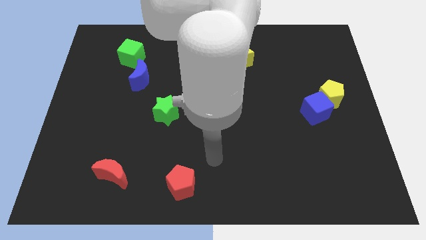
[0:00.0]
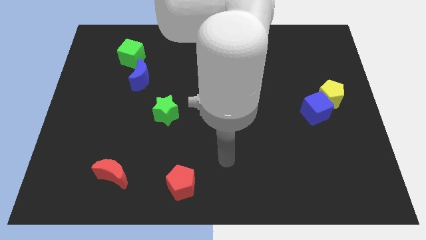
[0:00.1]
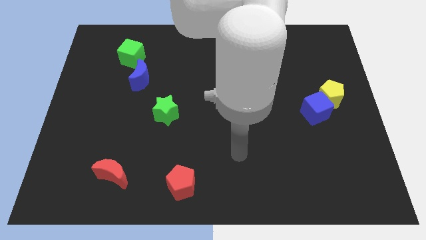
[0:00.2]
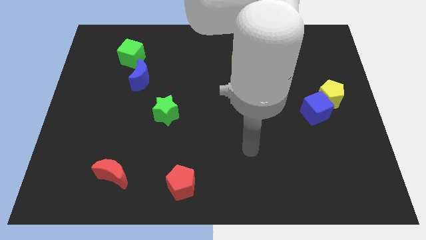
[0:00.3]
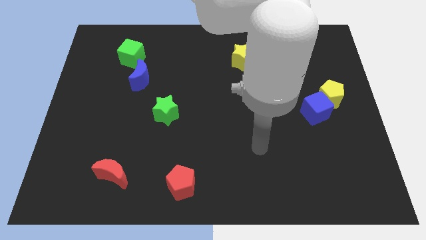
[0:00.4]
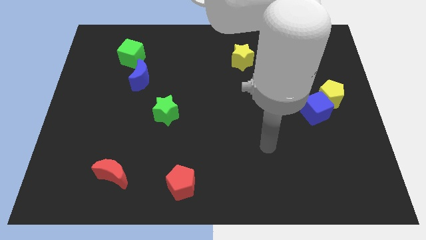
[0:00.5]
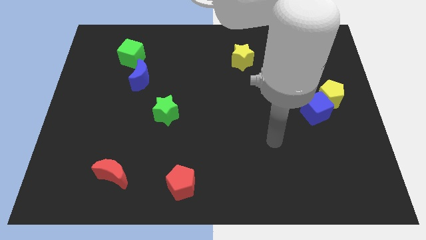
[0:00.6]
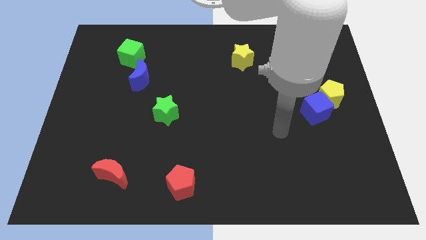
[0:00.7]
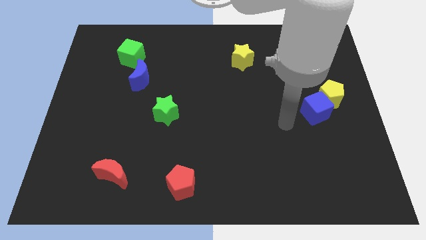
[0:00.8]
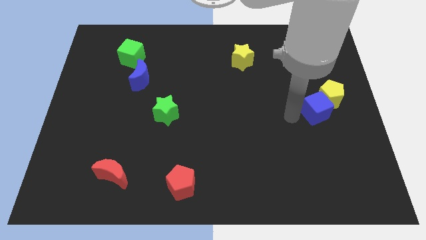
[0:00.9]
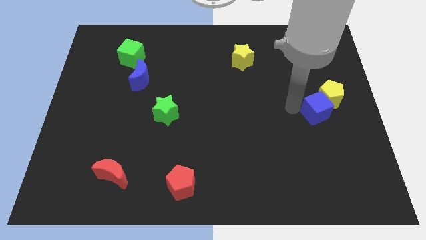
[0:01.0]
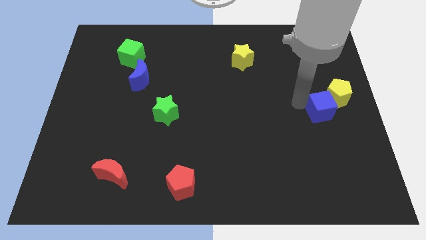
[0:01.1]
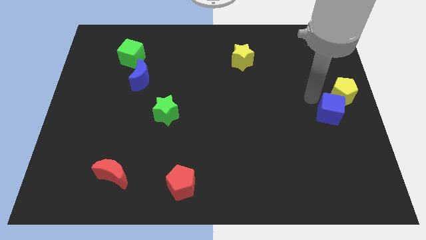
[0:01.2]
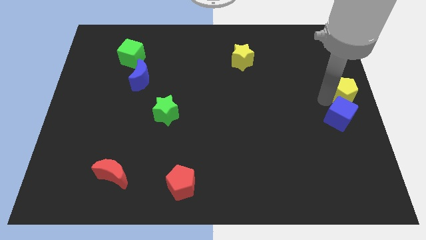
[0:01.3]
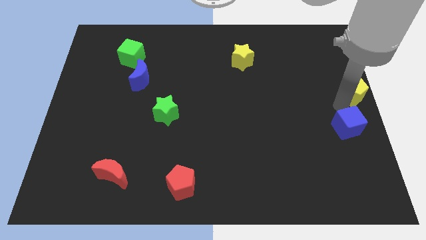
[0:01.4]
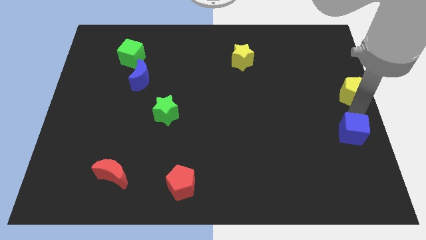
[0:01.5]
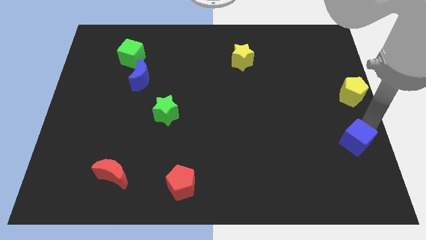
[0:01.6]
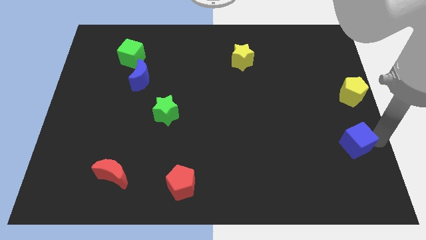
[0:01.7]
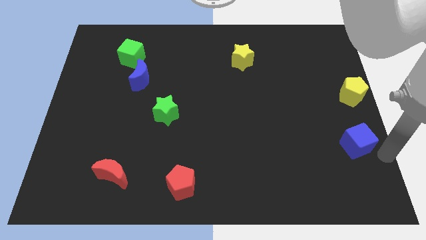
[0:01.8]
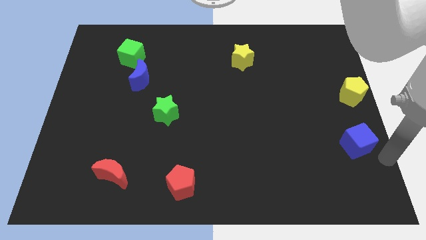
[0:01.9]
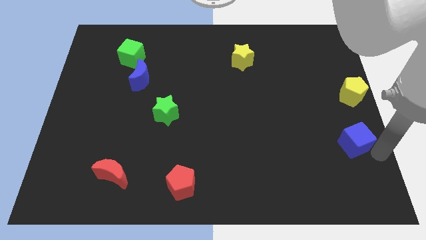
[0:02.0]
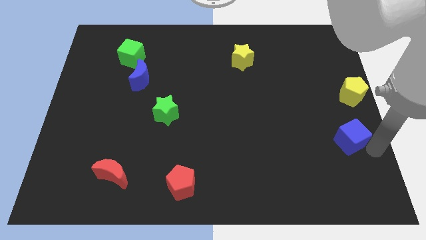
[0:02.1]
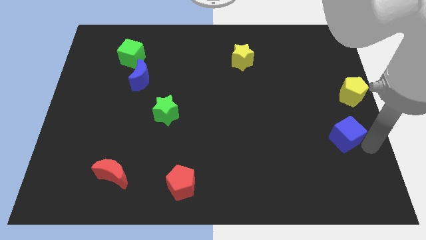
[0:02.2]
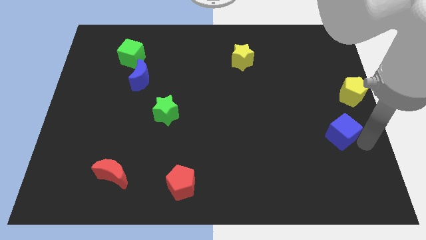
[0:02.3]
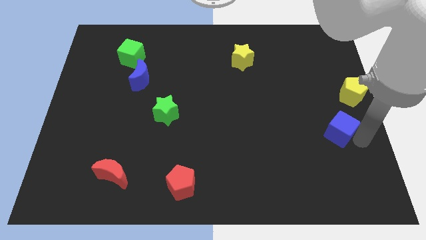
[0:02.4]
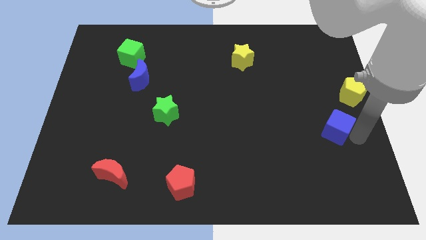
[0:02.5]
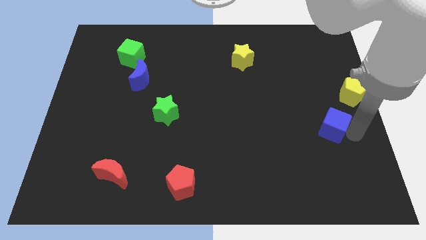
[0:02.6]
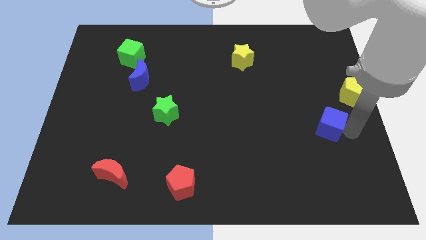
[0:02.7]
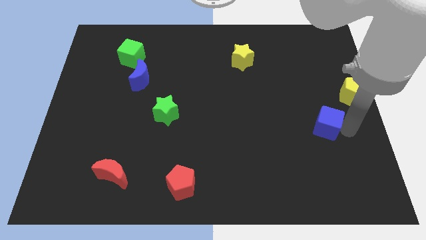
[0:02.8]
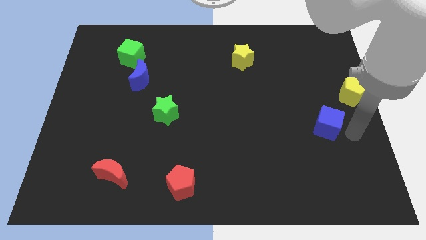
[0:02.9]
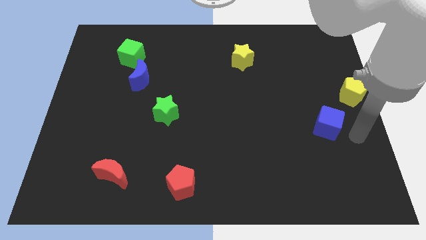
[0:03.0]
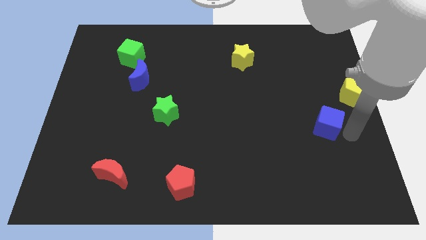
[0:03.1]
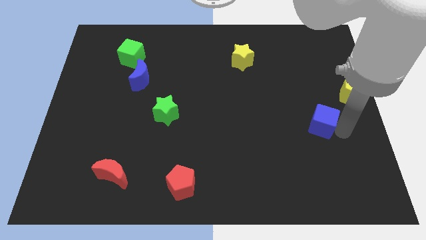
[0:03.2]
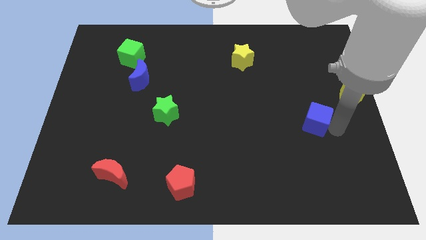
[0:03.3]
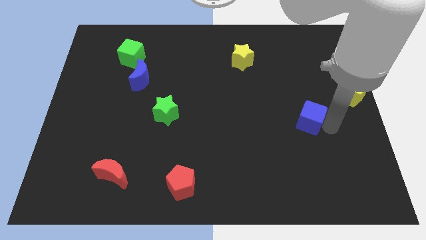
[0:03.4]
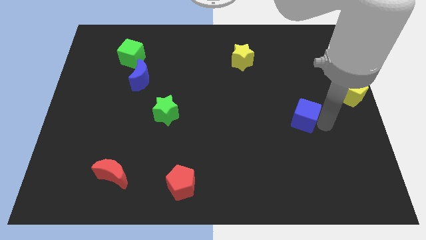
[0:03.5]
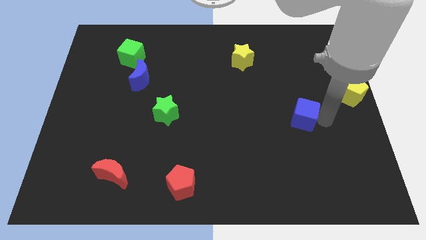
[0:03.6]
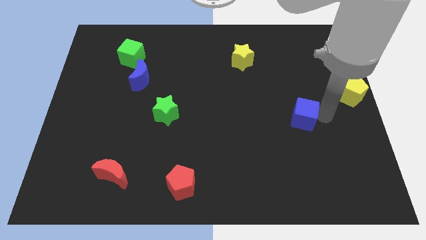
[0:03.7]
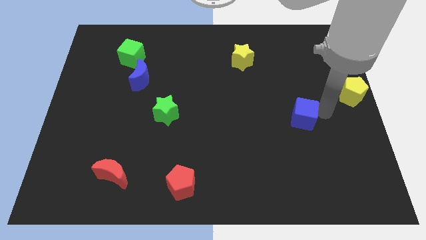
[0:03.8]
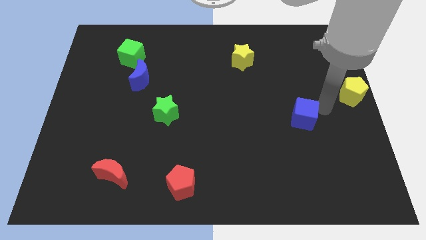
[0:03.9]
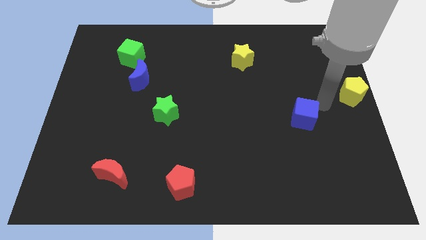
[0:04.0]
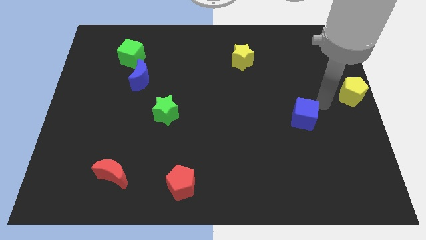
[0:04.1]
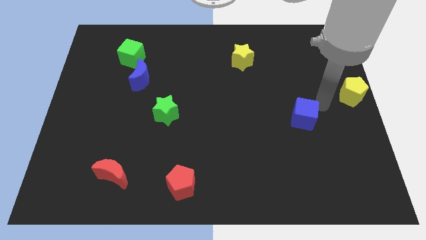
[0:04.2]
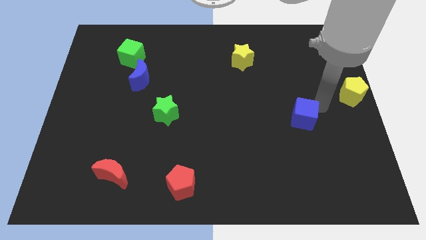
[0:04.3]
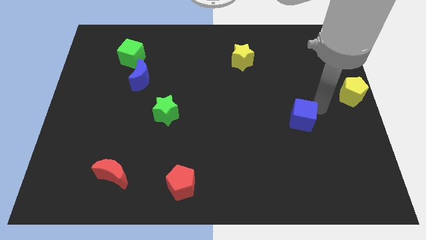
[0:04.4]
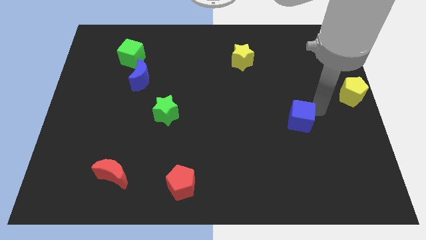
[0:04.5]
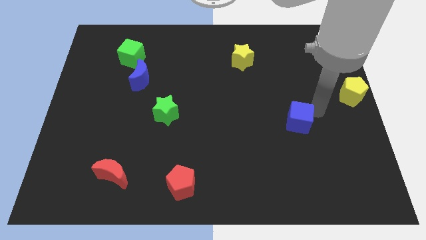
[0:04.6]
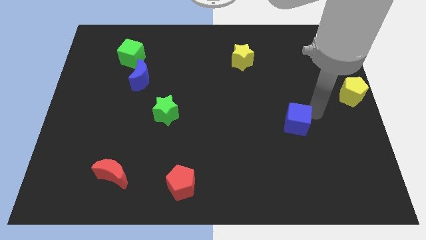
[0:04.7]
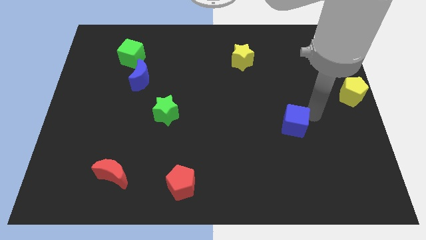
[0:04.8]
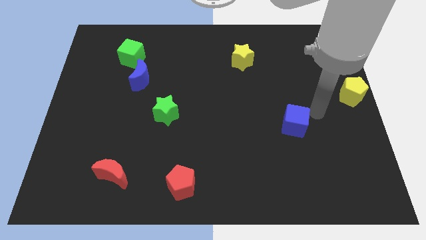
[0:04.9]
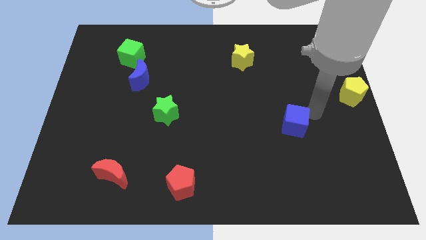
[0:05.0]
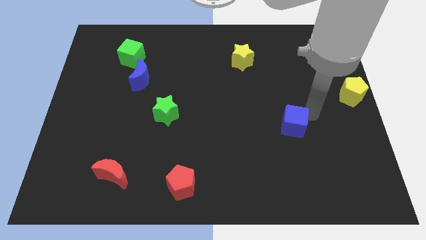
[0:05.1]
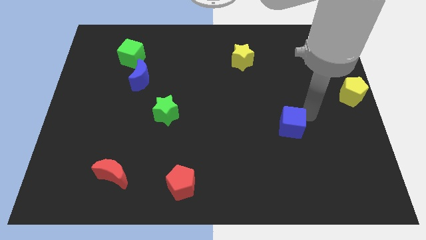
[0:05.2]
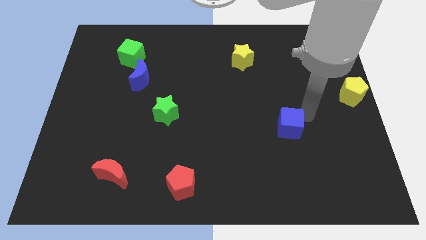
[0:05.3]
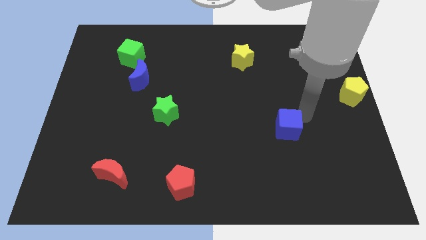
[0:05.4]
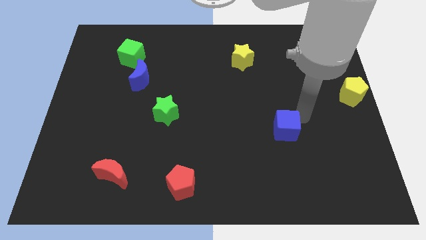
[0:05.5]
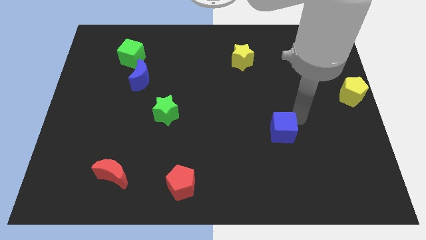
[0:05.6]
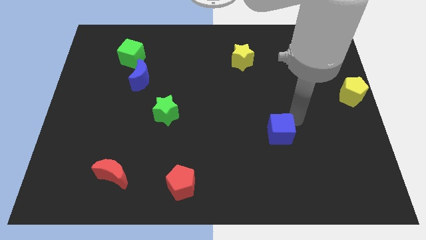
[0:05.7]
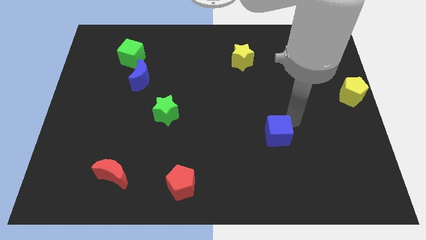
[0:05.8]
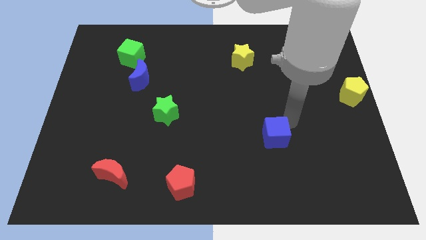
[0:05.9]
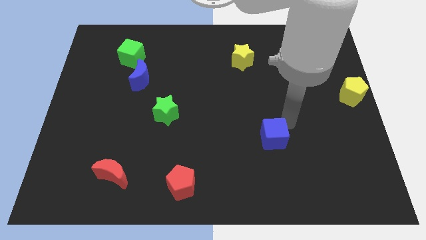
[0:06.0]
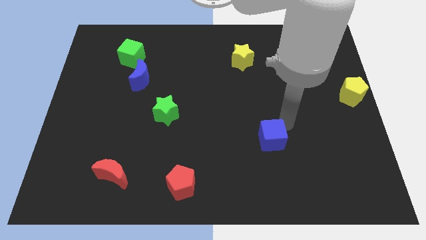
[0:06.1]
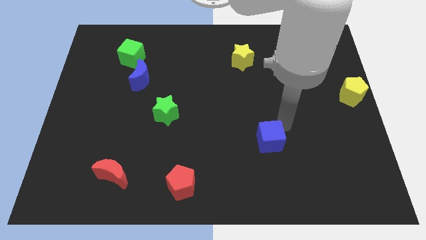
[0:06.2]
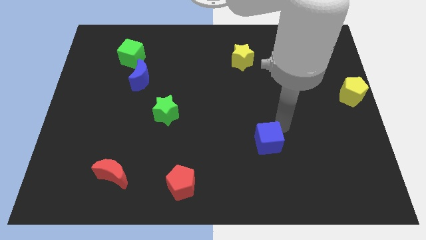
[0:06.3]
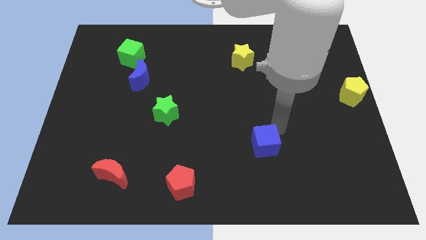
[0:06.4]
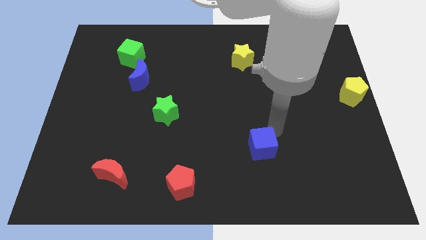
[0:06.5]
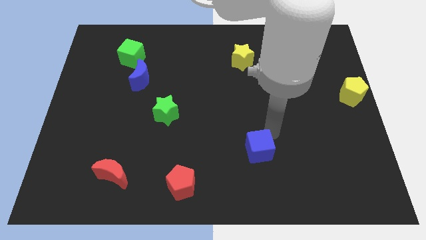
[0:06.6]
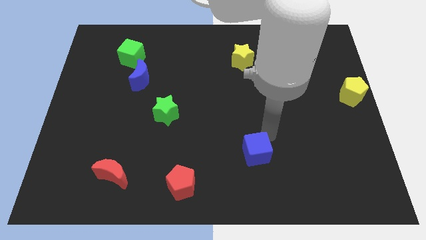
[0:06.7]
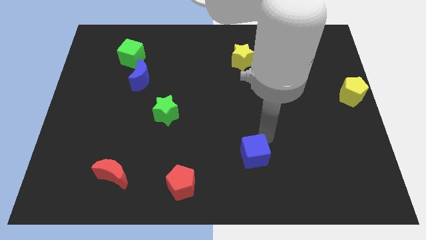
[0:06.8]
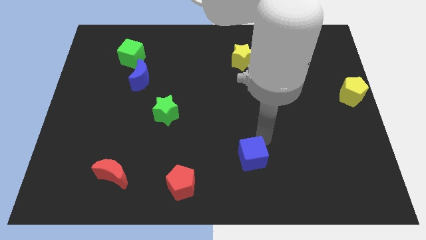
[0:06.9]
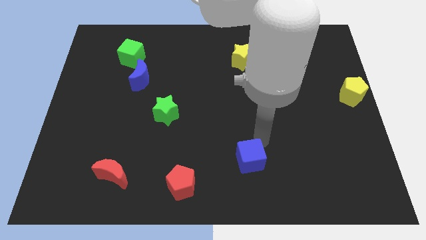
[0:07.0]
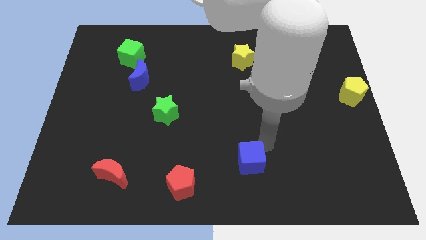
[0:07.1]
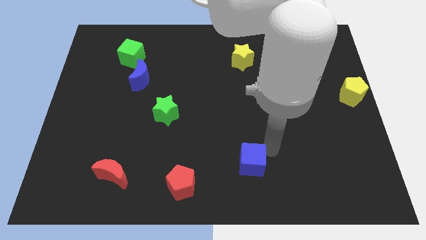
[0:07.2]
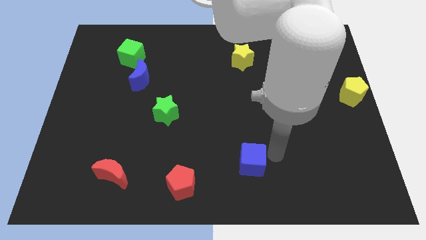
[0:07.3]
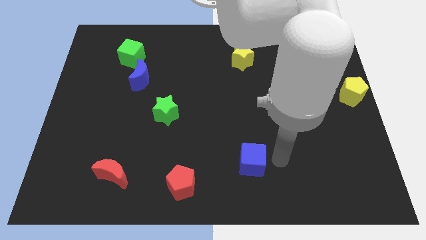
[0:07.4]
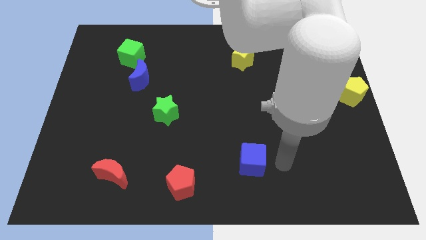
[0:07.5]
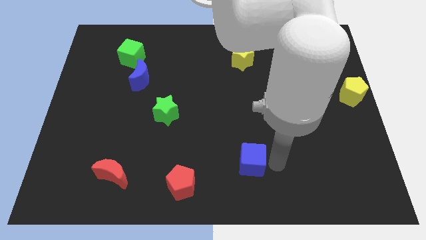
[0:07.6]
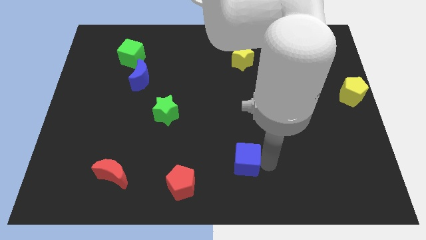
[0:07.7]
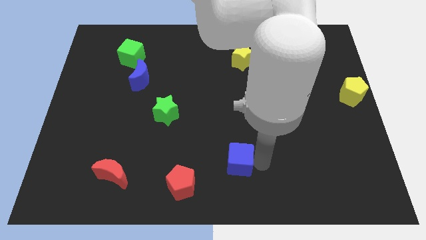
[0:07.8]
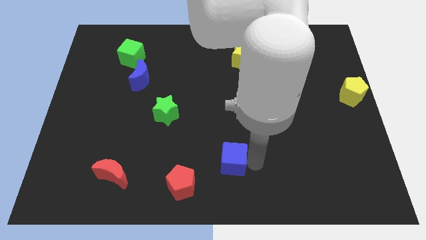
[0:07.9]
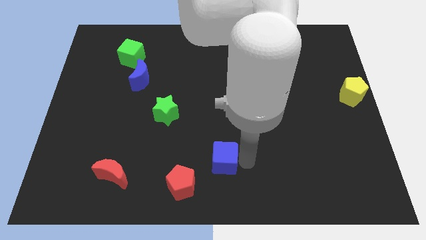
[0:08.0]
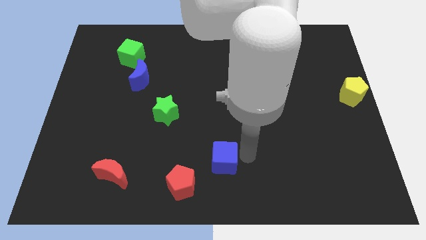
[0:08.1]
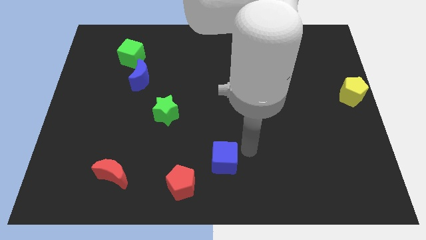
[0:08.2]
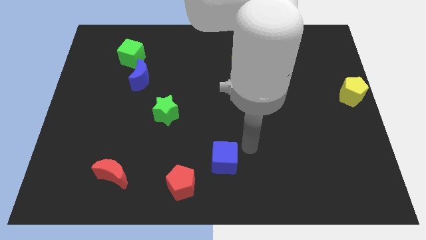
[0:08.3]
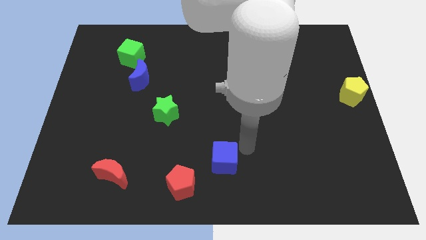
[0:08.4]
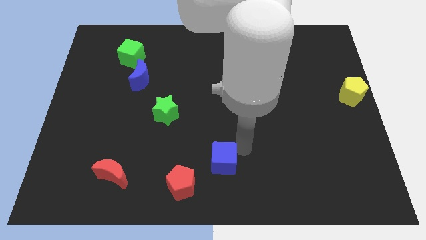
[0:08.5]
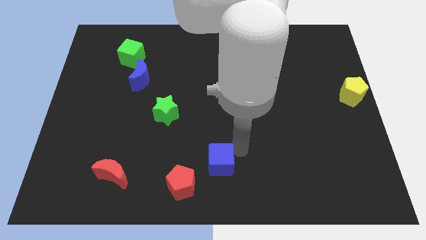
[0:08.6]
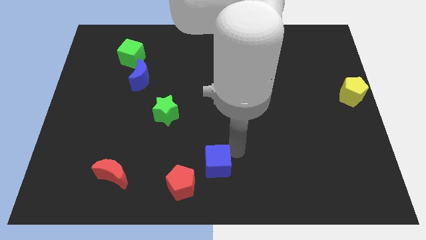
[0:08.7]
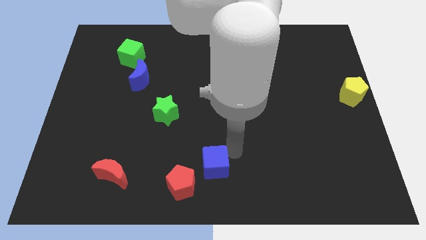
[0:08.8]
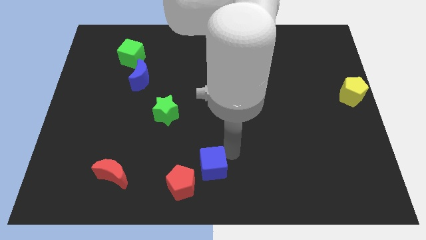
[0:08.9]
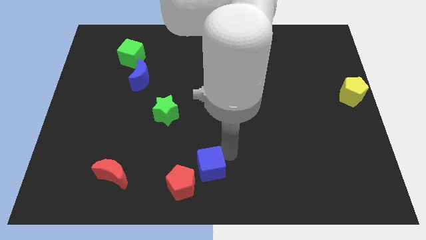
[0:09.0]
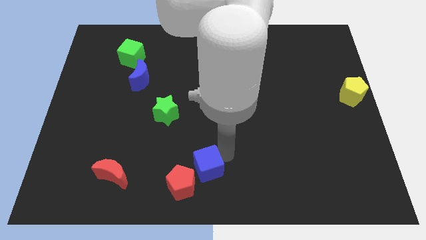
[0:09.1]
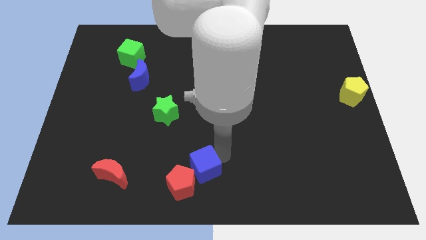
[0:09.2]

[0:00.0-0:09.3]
move the blue cube close to the red pentagon
